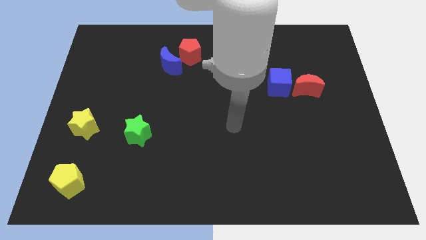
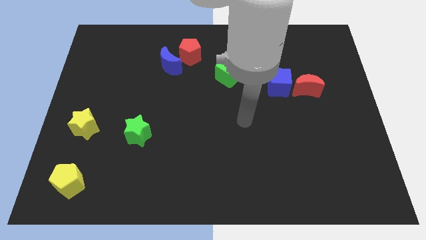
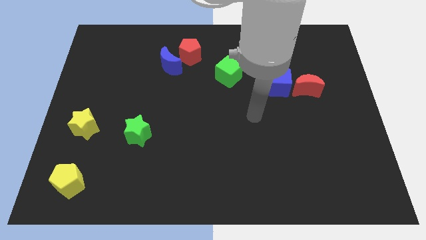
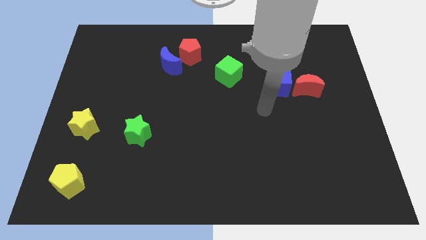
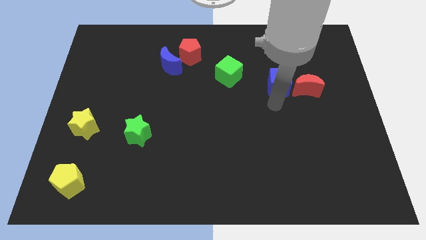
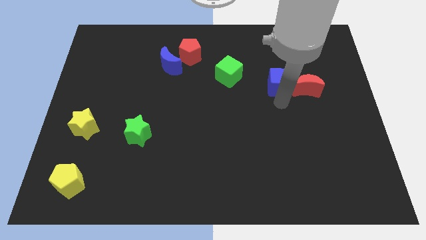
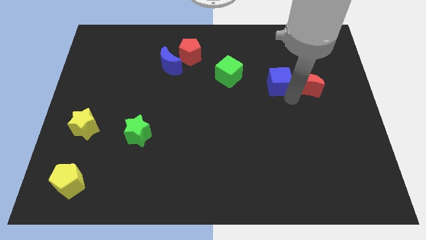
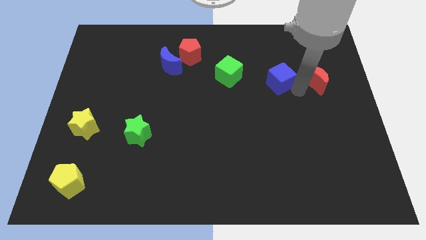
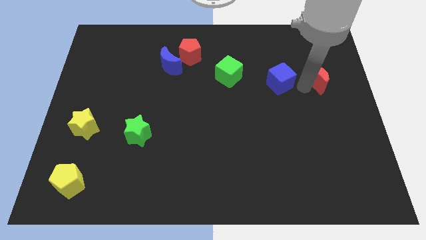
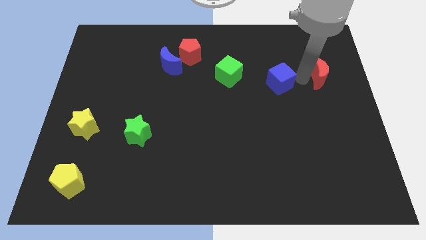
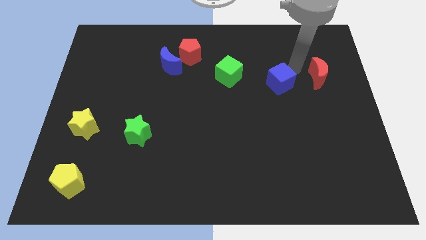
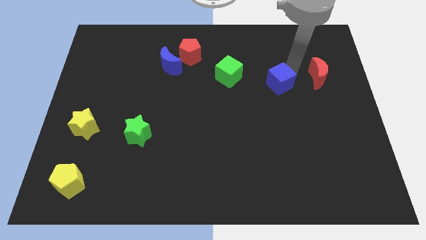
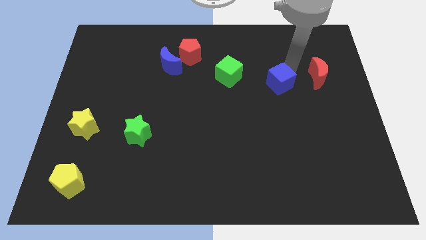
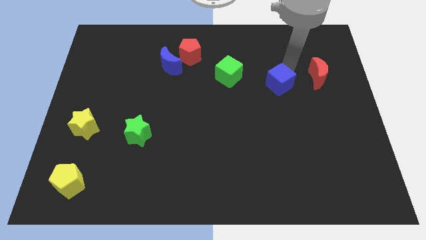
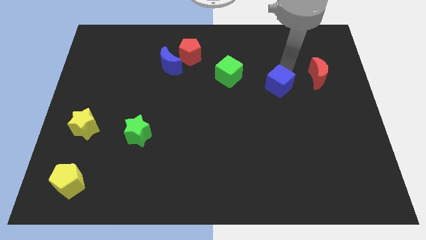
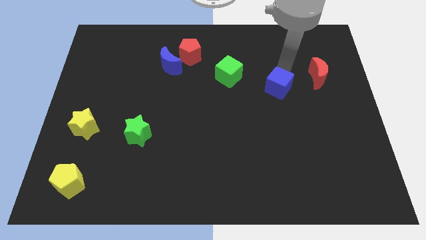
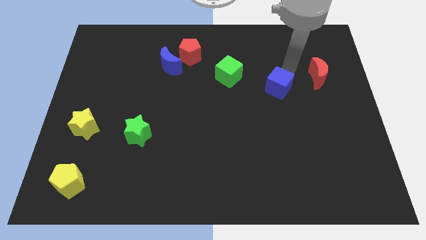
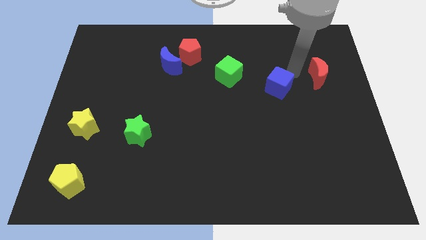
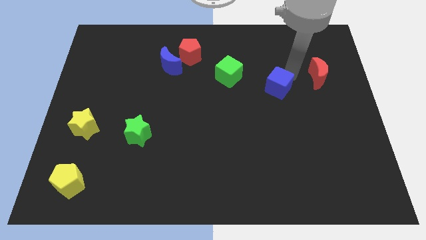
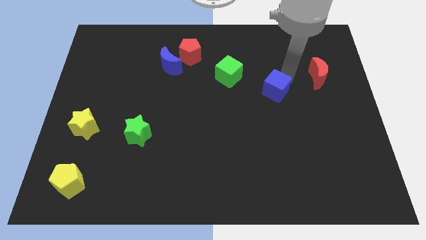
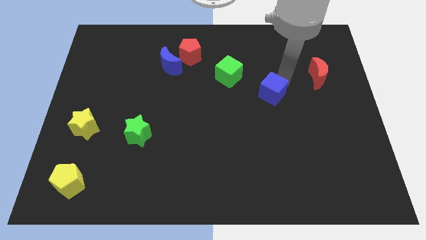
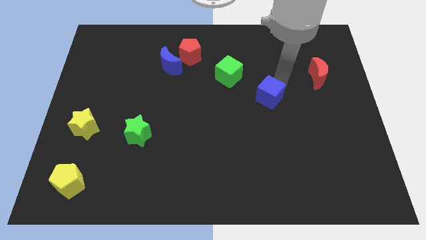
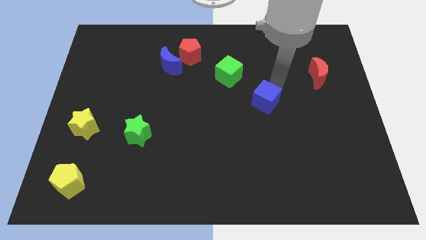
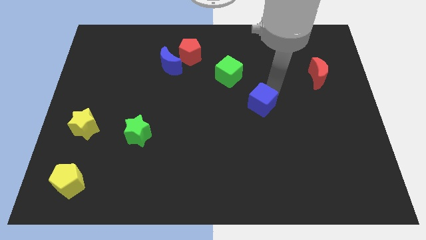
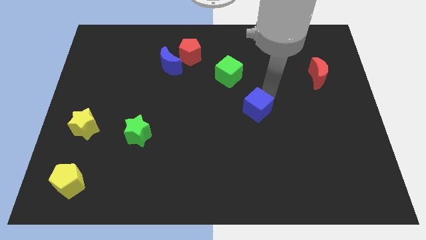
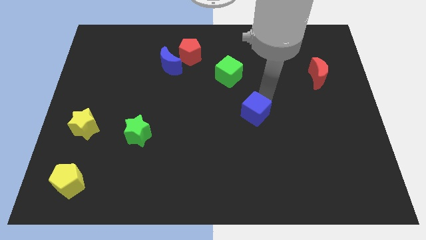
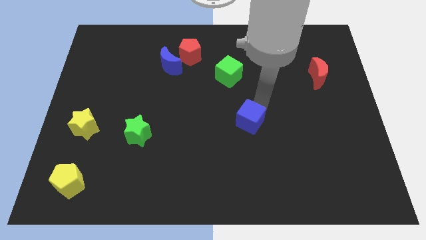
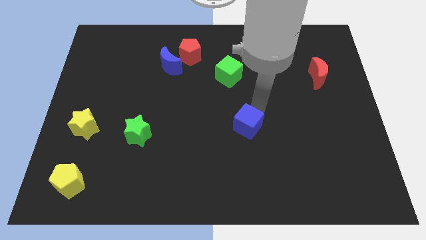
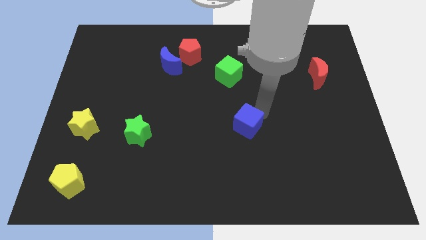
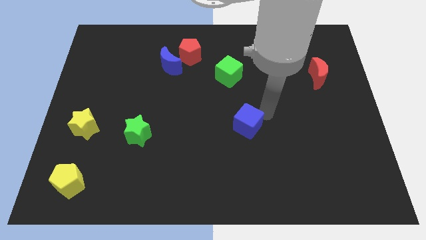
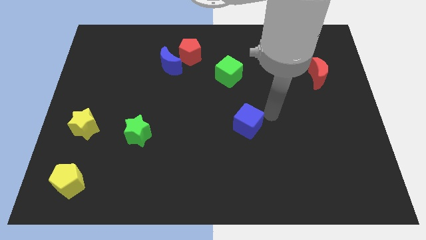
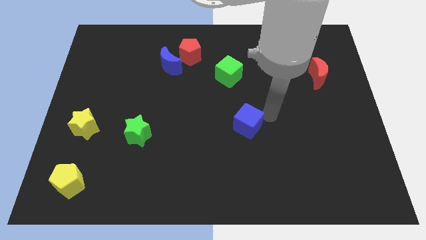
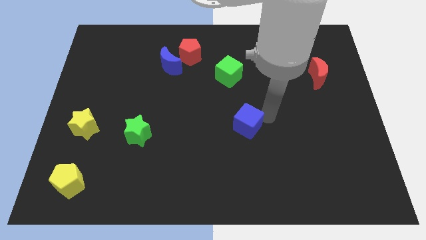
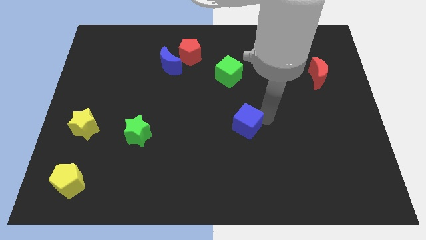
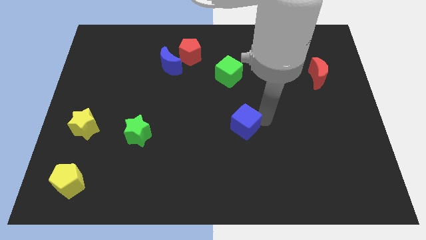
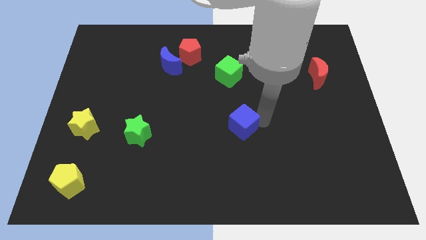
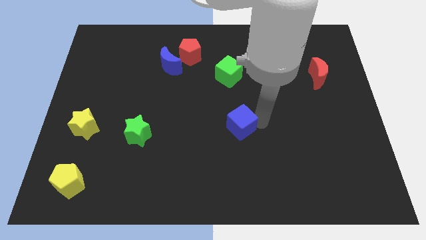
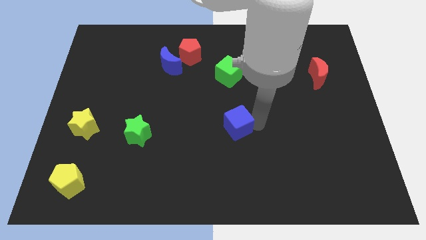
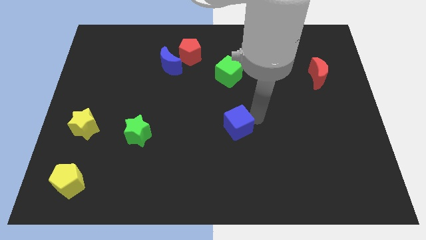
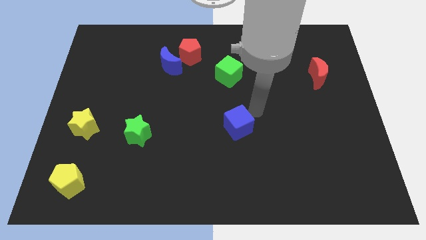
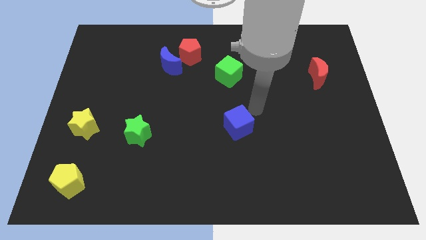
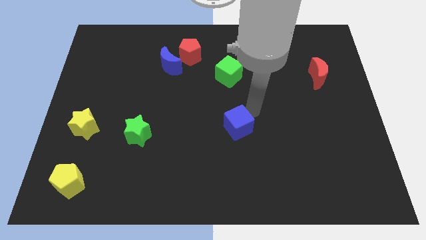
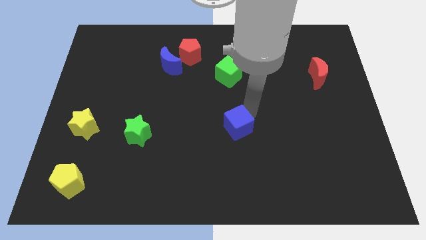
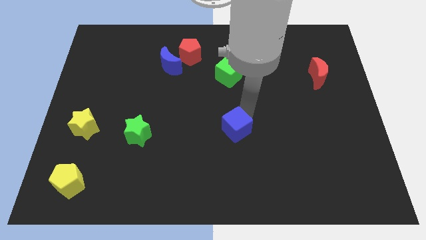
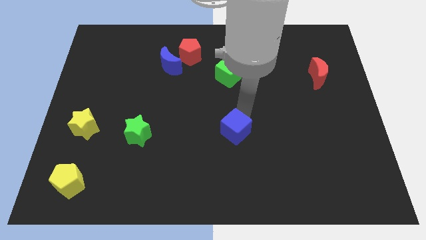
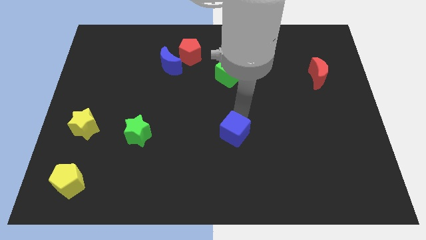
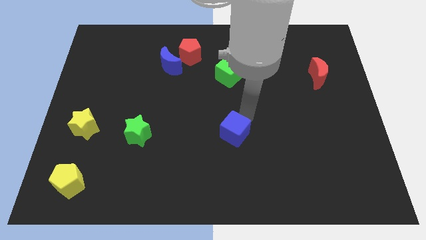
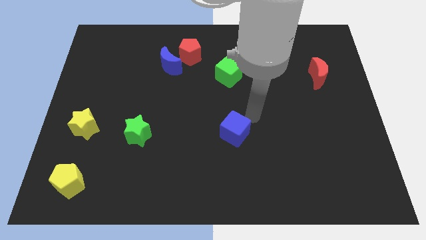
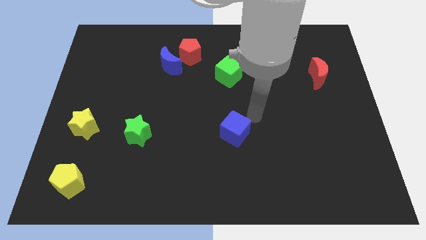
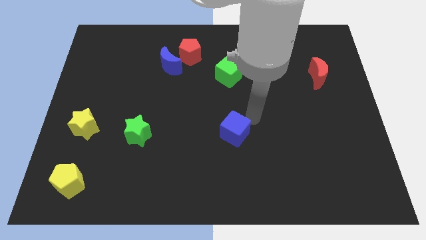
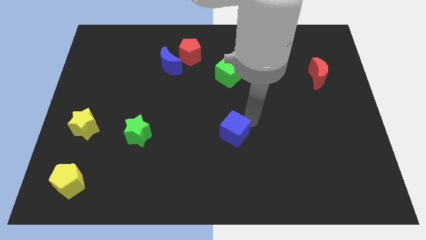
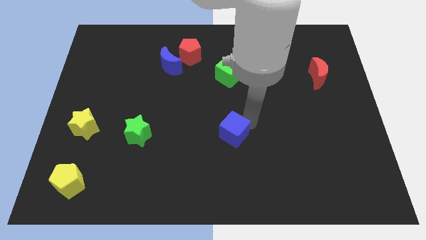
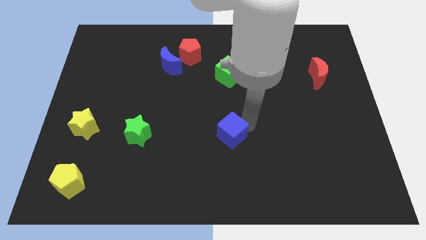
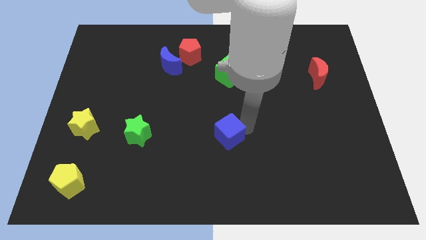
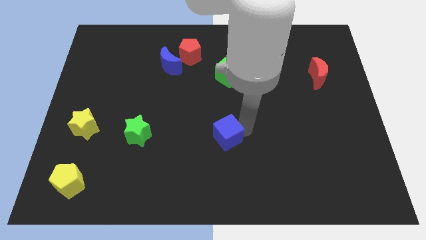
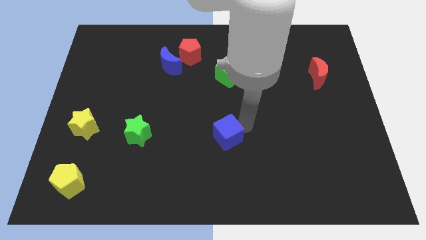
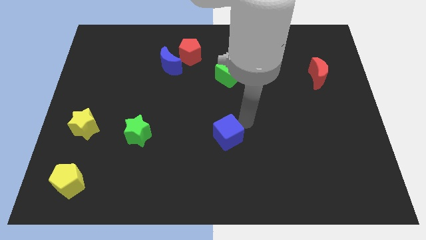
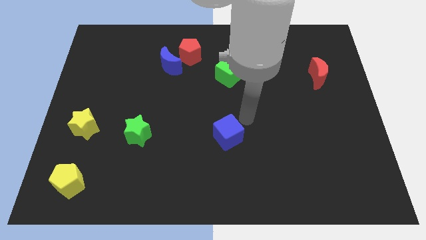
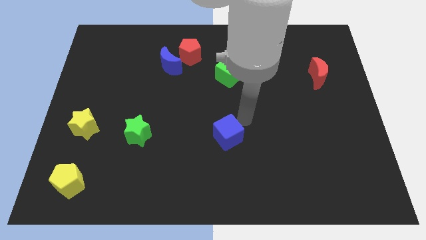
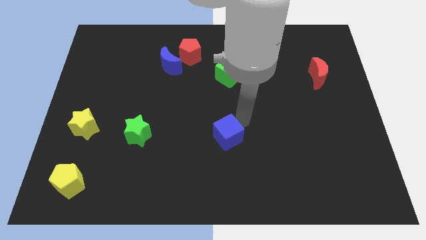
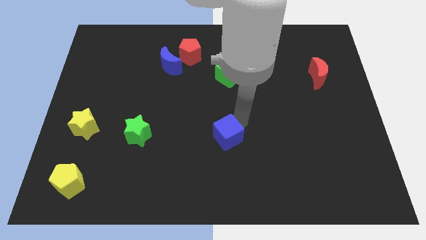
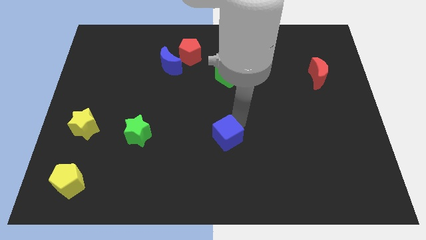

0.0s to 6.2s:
slide the blue cube down and left diagonally

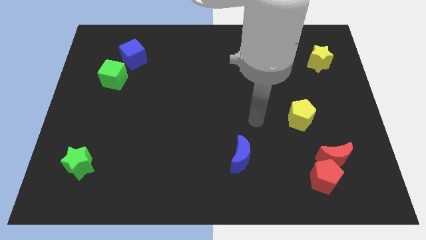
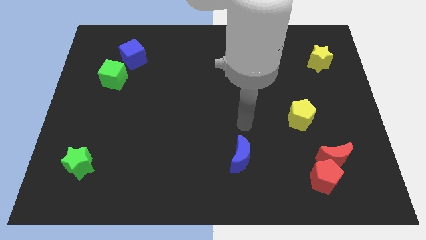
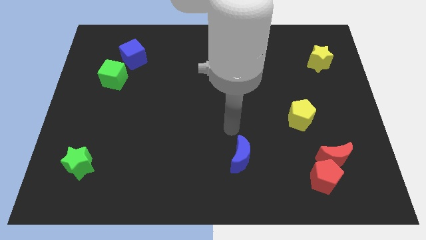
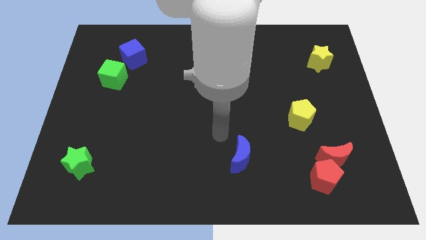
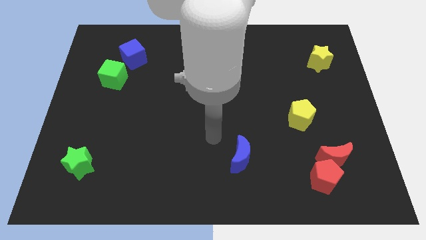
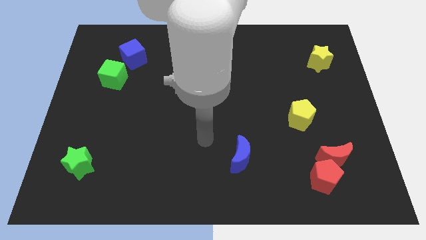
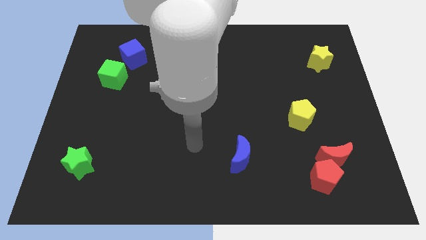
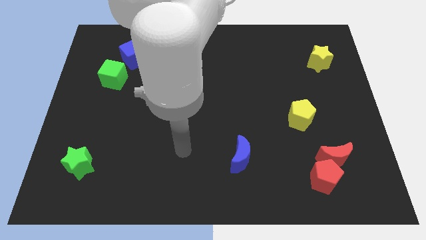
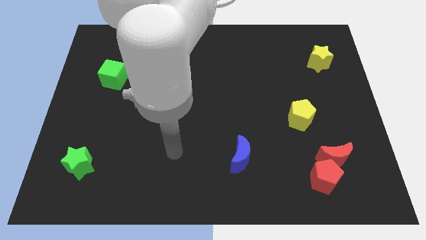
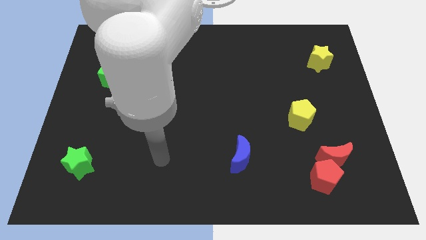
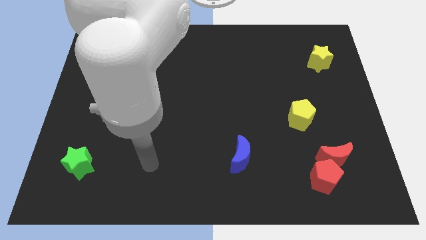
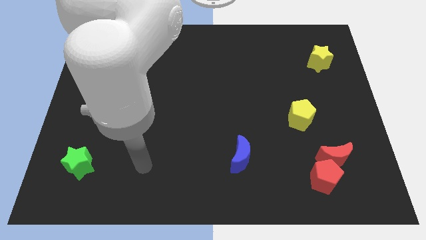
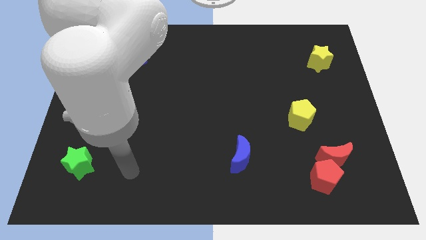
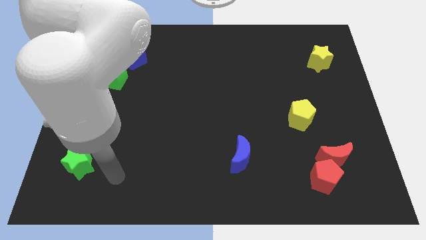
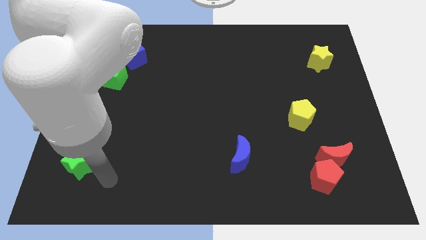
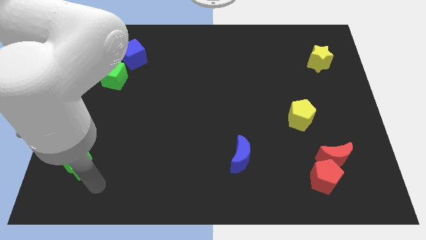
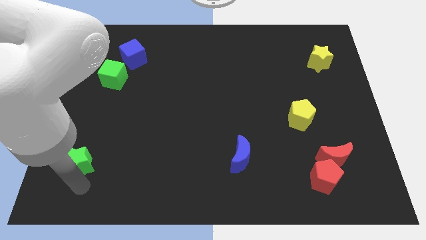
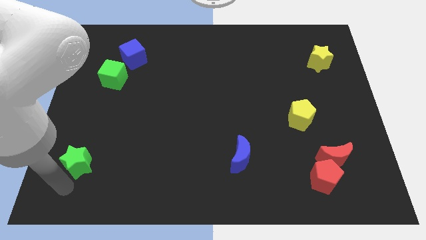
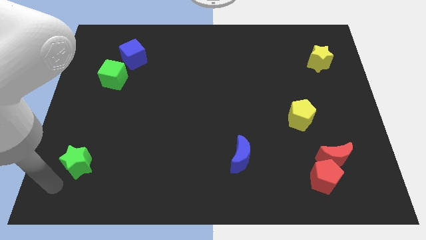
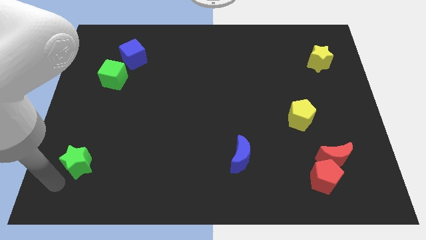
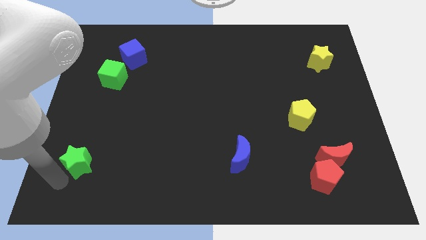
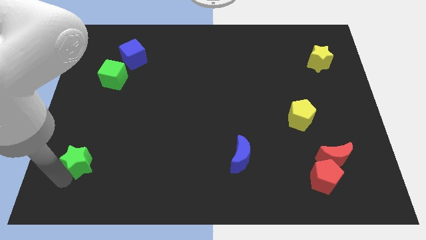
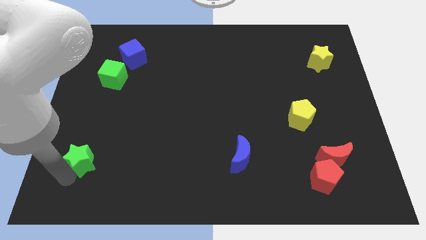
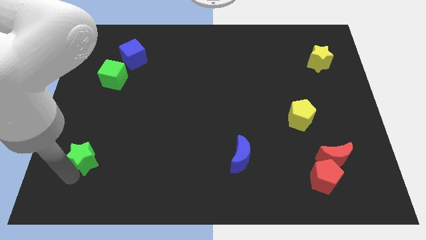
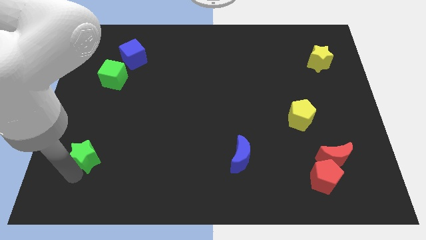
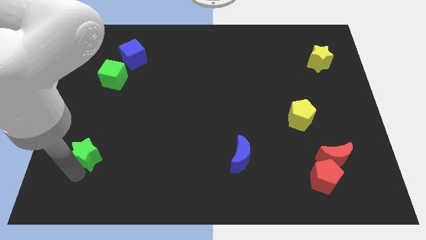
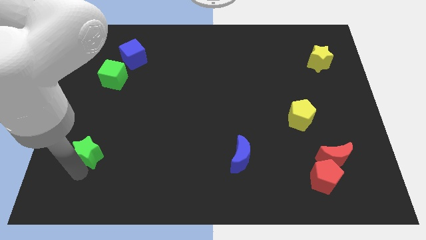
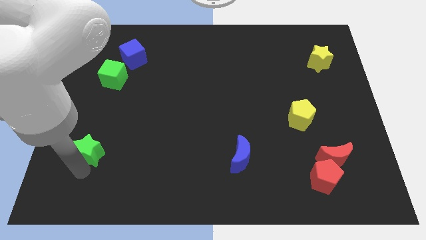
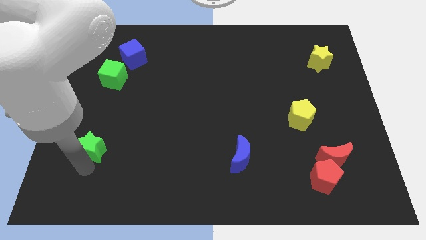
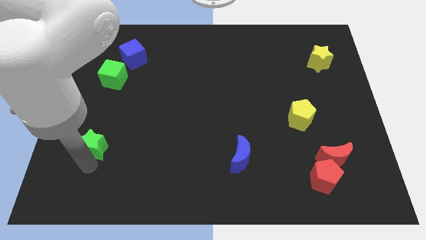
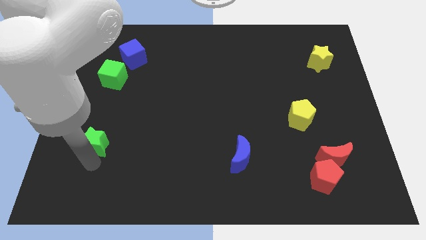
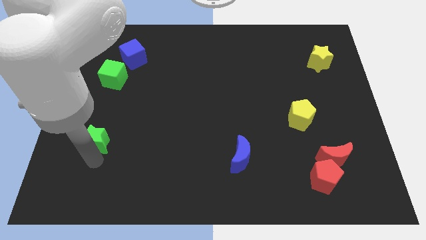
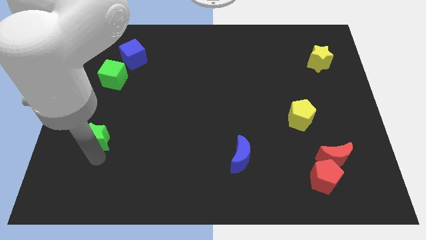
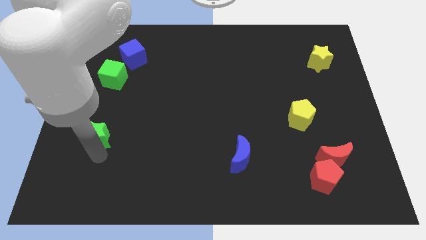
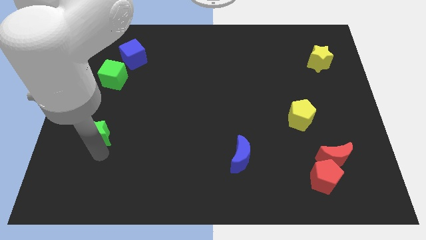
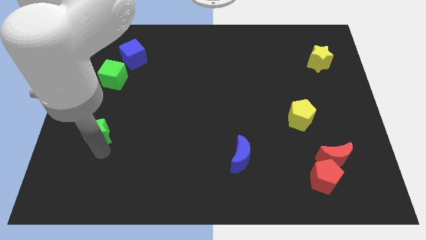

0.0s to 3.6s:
push the green star a little up
